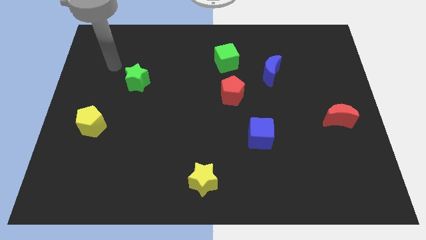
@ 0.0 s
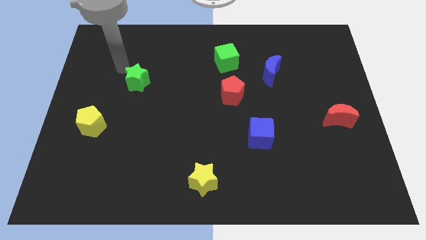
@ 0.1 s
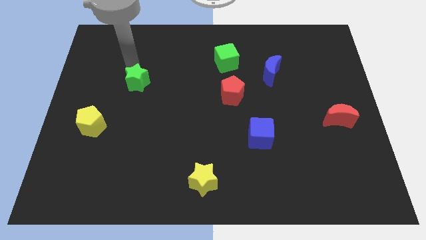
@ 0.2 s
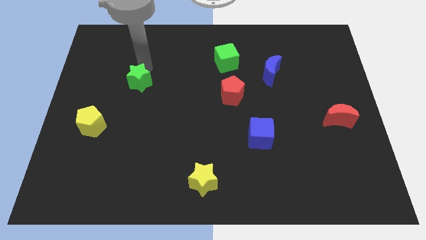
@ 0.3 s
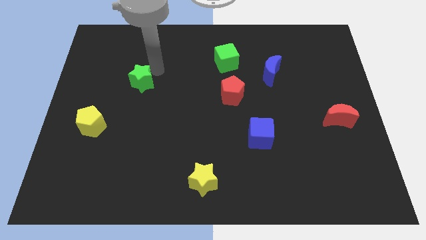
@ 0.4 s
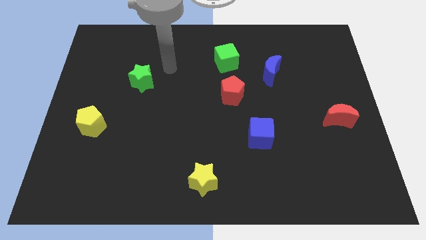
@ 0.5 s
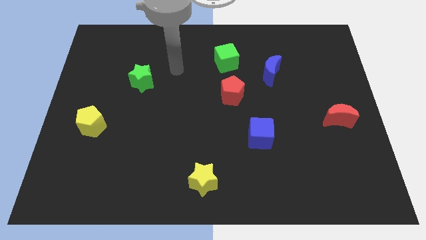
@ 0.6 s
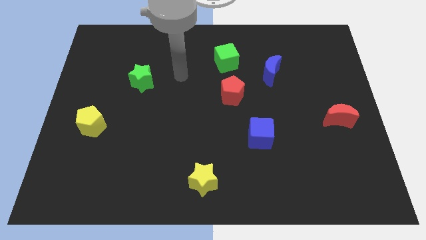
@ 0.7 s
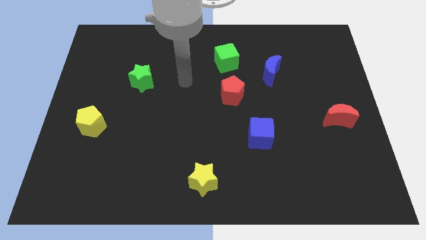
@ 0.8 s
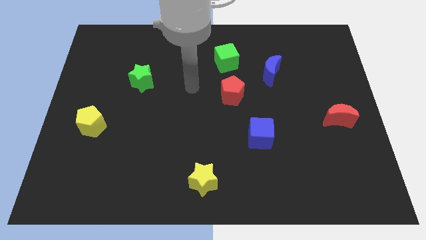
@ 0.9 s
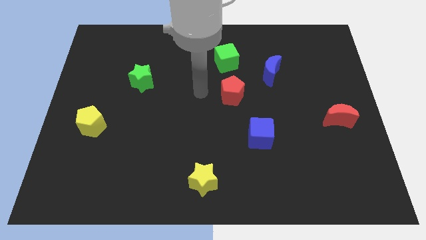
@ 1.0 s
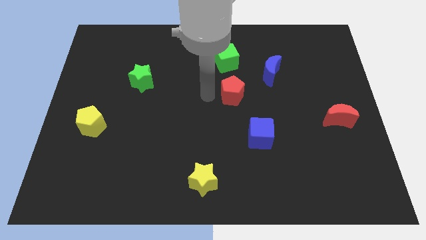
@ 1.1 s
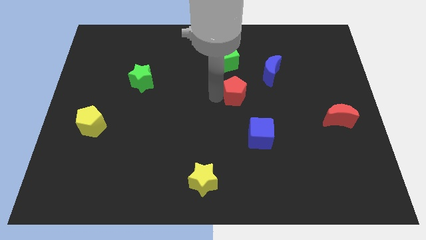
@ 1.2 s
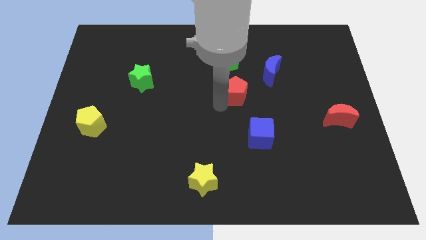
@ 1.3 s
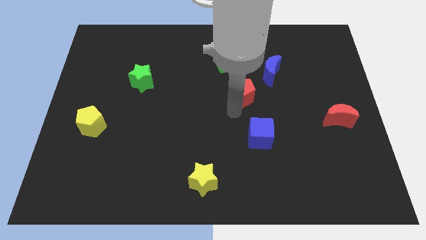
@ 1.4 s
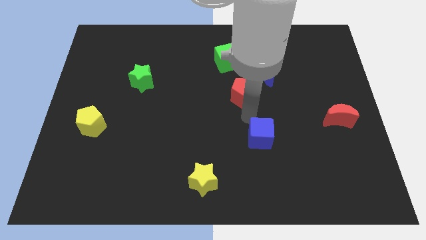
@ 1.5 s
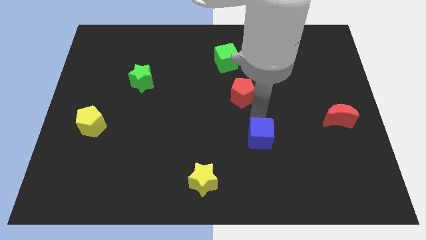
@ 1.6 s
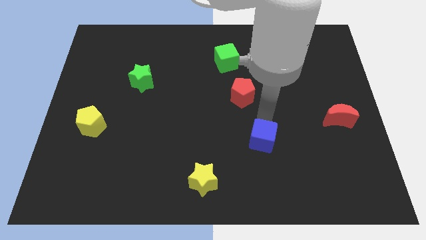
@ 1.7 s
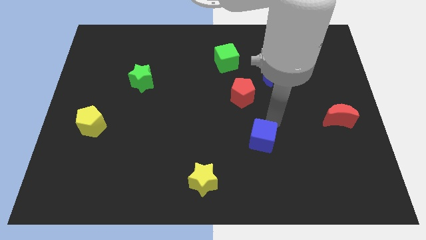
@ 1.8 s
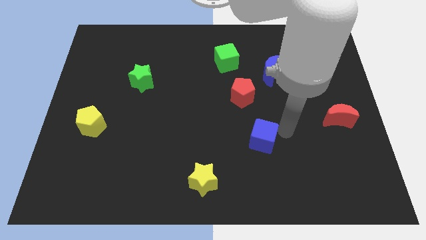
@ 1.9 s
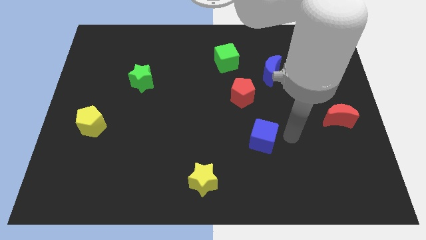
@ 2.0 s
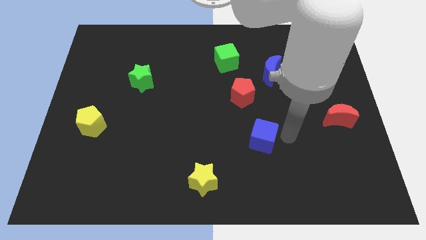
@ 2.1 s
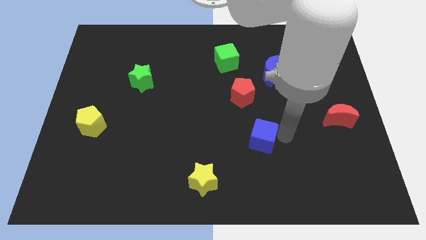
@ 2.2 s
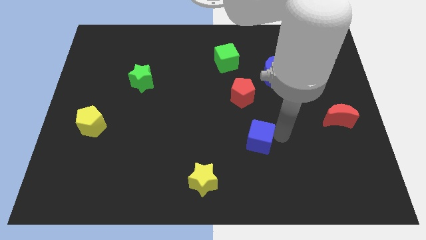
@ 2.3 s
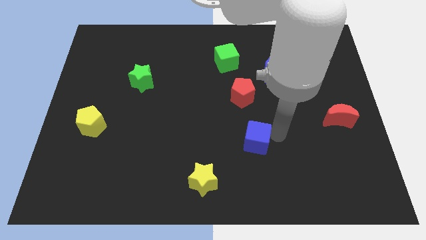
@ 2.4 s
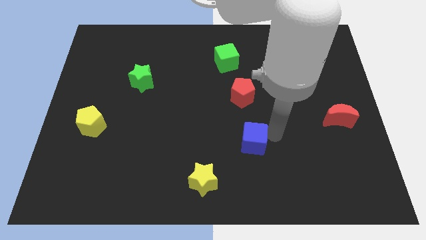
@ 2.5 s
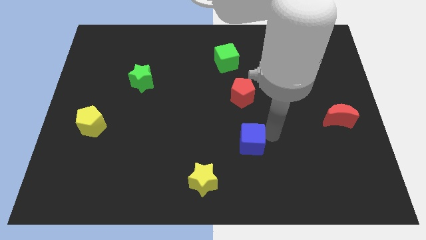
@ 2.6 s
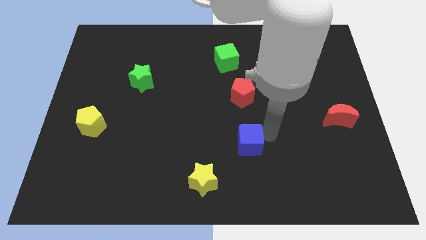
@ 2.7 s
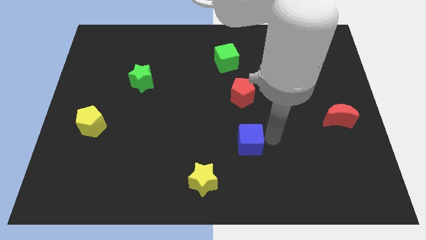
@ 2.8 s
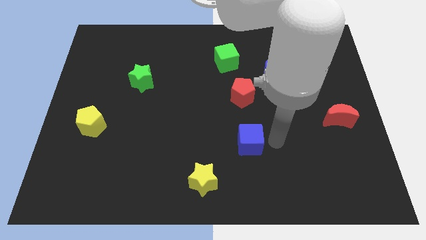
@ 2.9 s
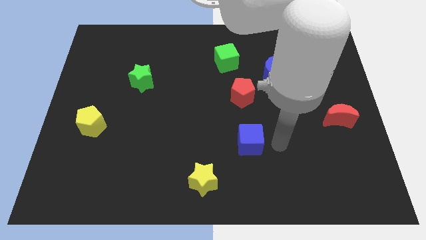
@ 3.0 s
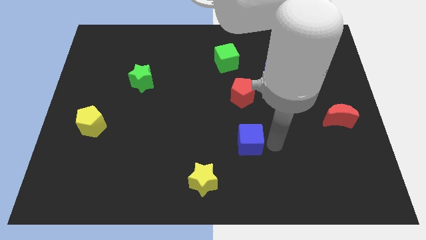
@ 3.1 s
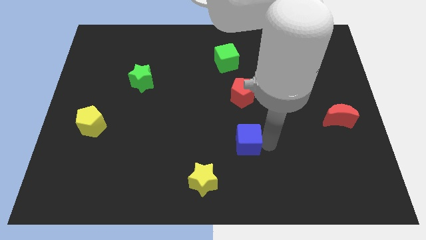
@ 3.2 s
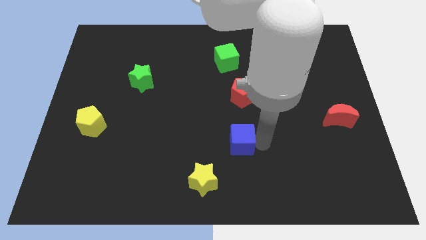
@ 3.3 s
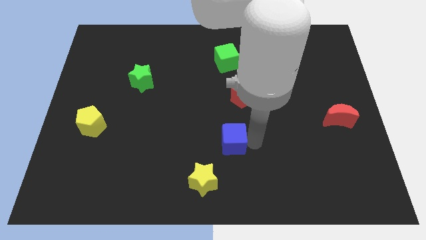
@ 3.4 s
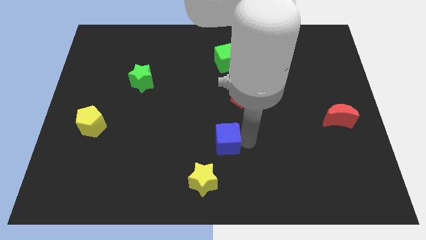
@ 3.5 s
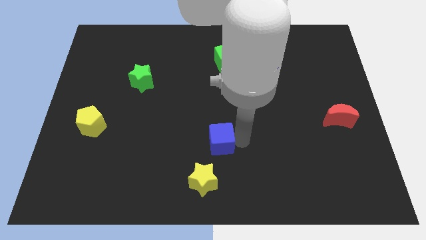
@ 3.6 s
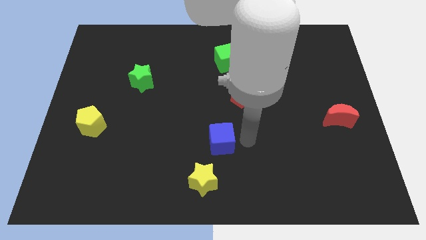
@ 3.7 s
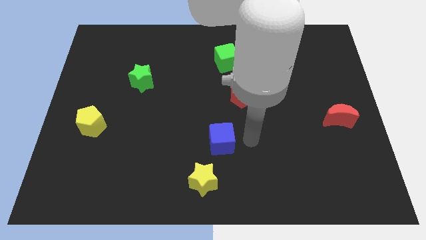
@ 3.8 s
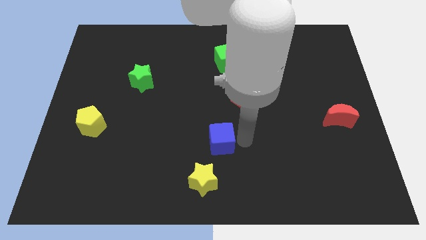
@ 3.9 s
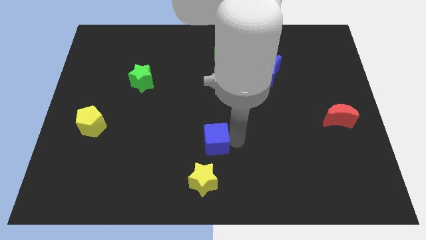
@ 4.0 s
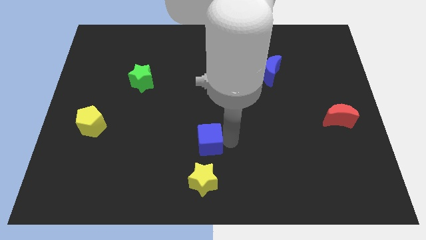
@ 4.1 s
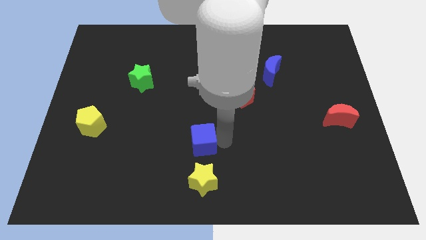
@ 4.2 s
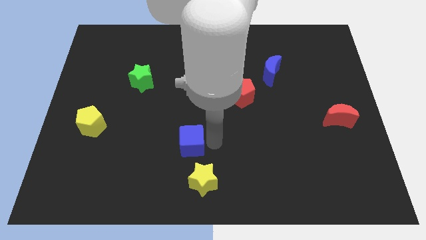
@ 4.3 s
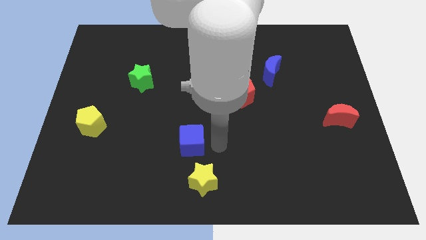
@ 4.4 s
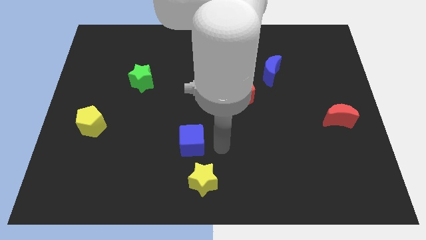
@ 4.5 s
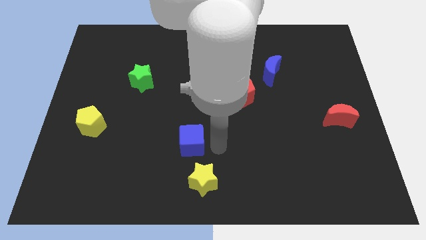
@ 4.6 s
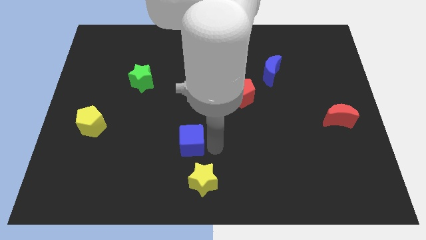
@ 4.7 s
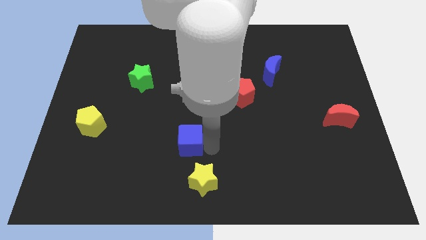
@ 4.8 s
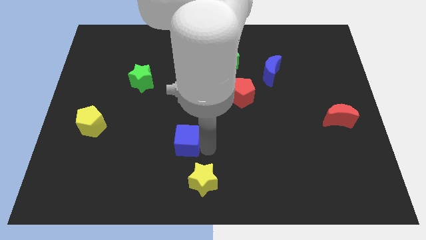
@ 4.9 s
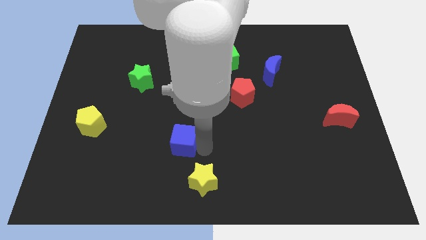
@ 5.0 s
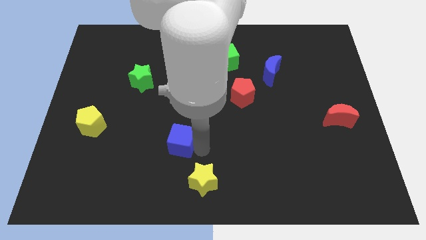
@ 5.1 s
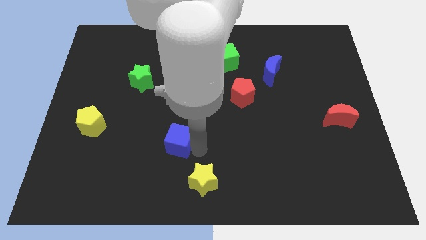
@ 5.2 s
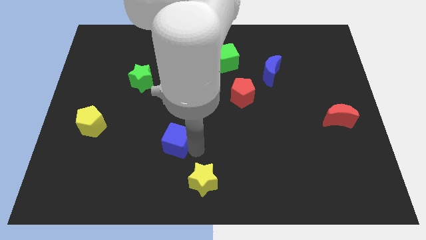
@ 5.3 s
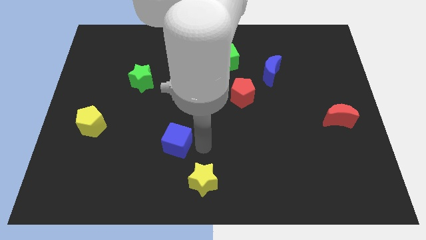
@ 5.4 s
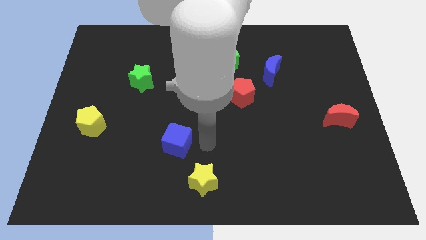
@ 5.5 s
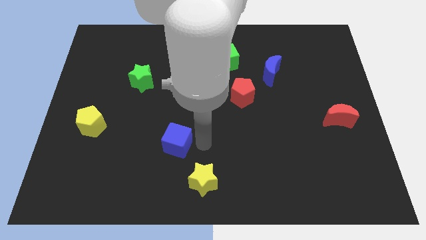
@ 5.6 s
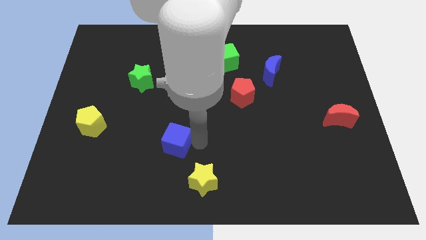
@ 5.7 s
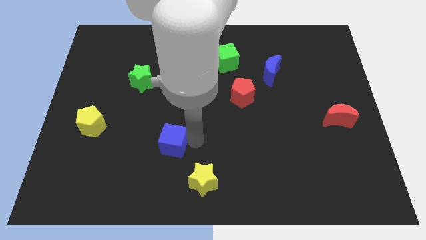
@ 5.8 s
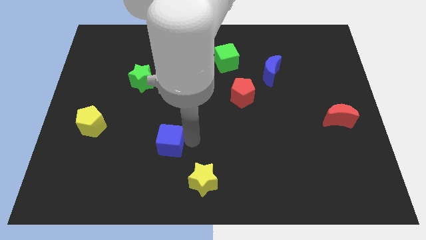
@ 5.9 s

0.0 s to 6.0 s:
slide the blue cube to the left

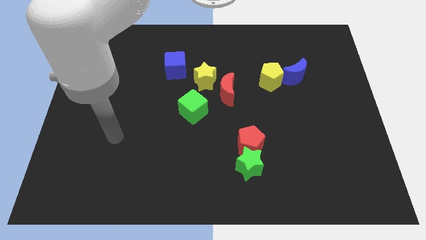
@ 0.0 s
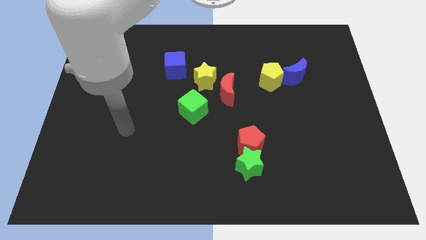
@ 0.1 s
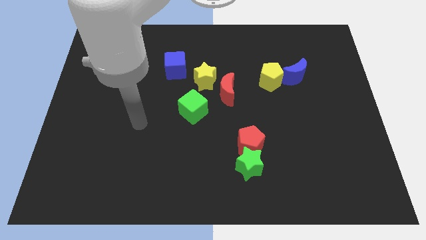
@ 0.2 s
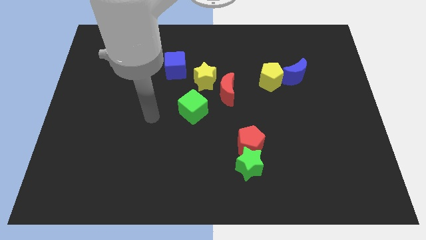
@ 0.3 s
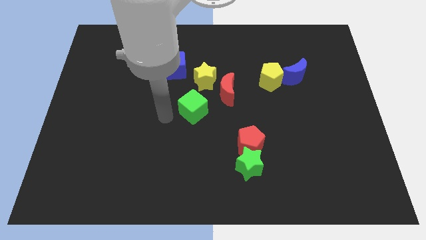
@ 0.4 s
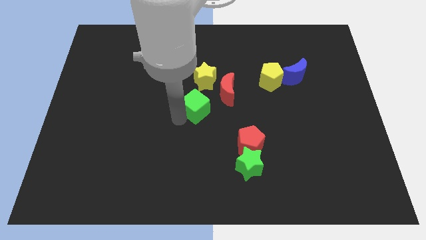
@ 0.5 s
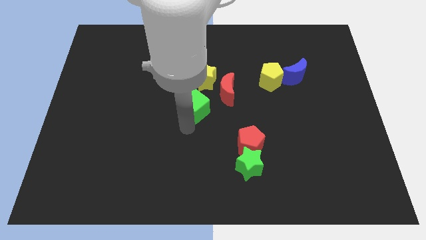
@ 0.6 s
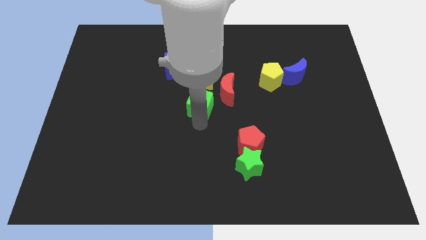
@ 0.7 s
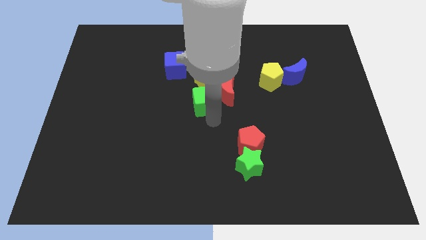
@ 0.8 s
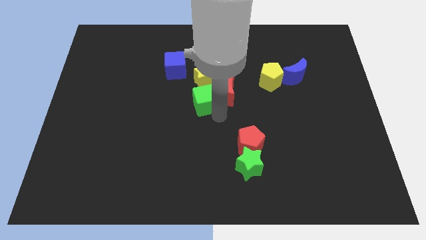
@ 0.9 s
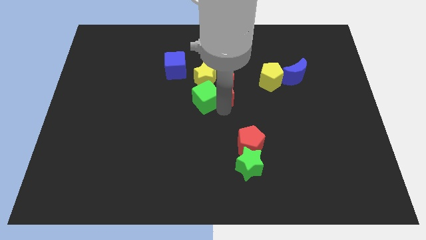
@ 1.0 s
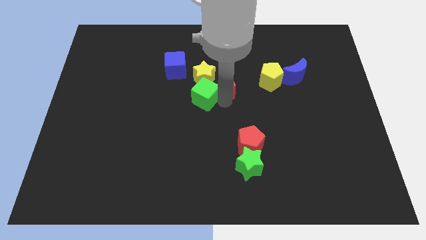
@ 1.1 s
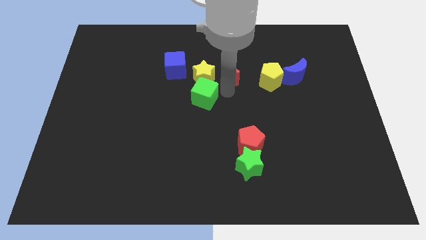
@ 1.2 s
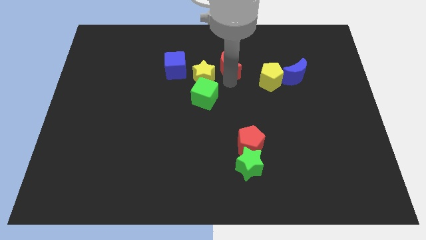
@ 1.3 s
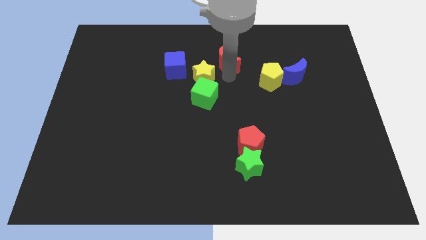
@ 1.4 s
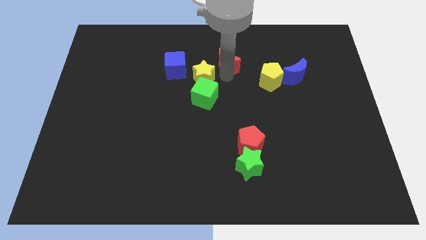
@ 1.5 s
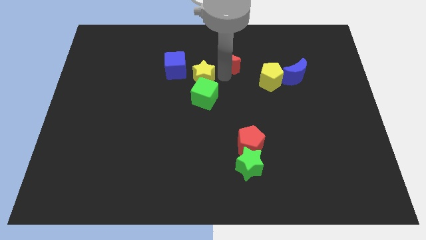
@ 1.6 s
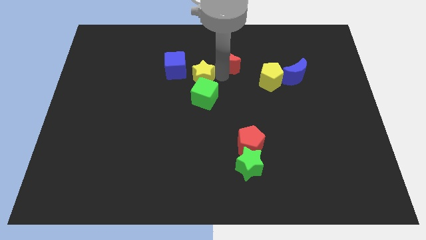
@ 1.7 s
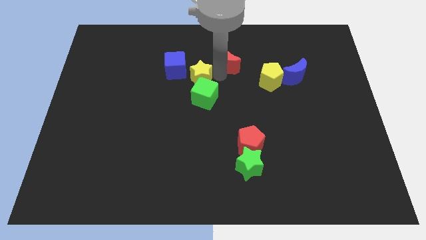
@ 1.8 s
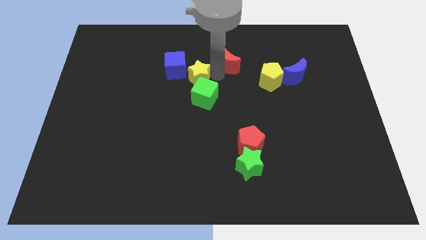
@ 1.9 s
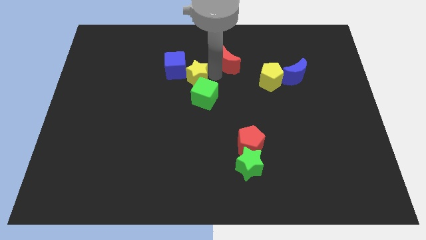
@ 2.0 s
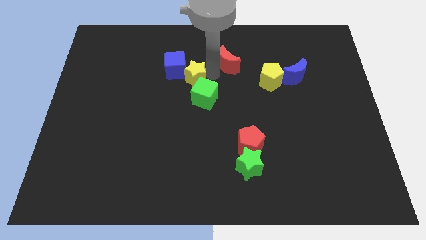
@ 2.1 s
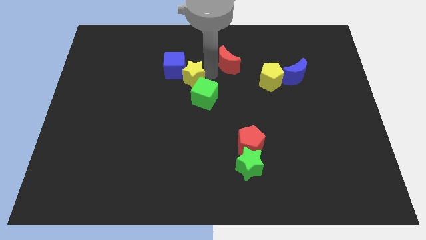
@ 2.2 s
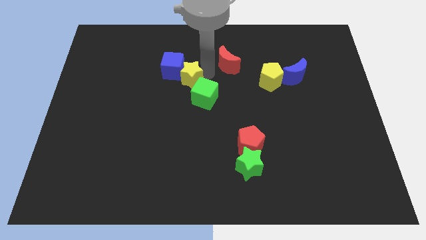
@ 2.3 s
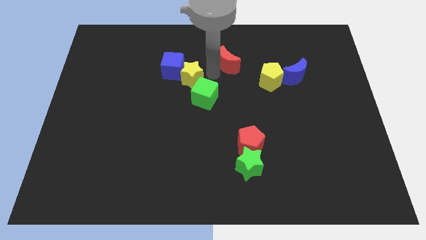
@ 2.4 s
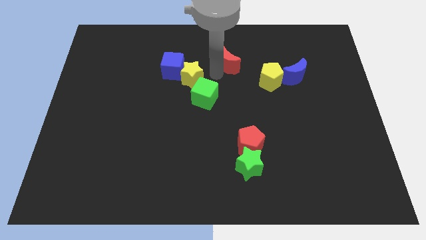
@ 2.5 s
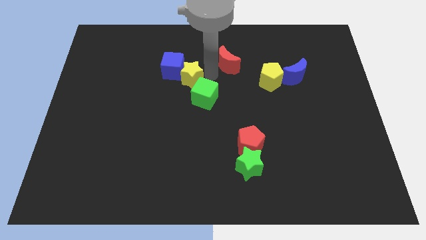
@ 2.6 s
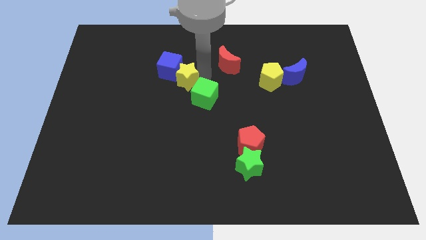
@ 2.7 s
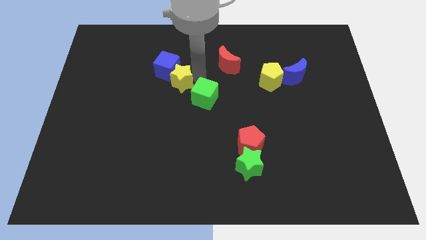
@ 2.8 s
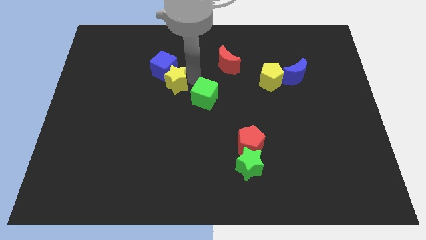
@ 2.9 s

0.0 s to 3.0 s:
move the yellow star left a little bit
